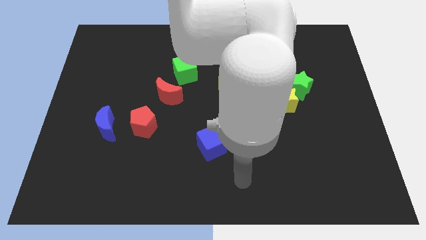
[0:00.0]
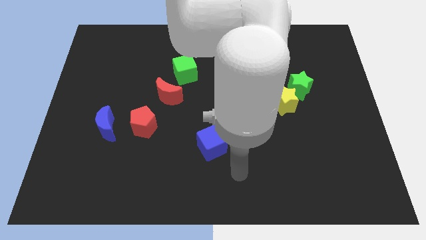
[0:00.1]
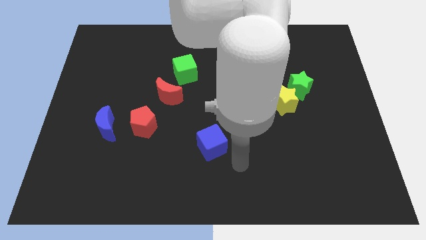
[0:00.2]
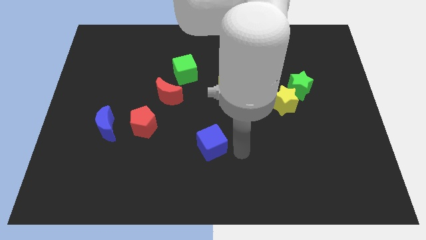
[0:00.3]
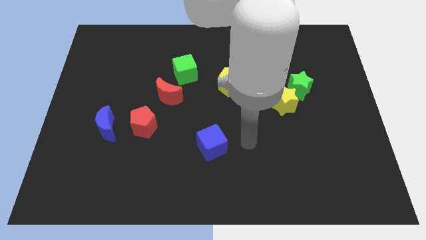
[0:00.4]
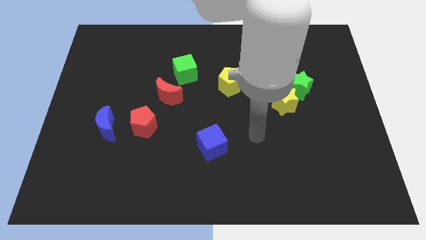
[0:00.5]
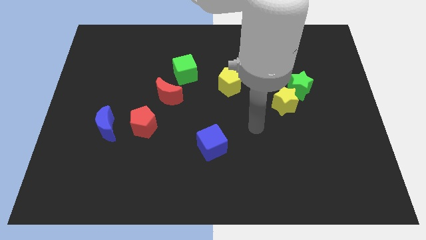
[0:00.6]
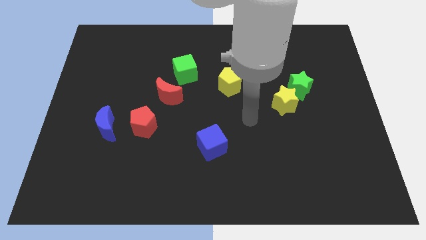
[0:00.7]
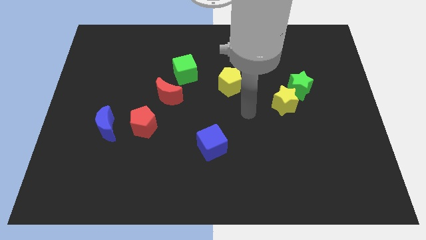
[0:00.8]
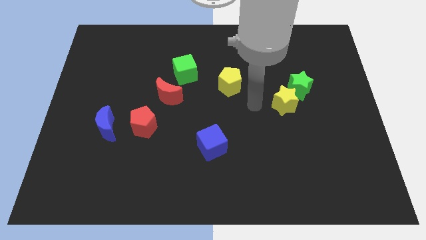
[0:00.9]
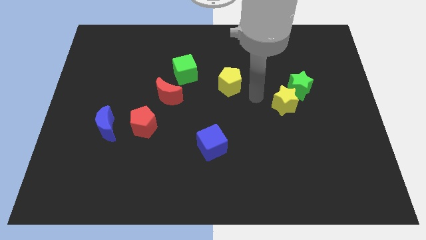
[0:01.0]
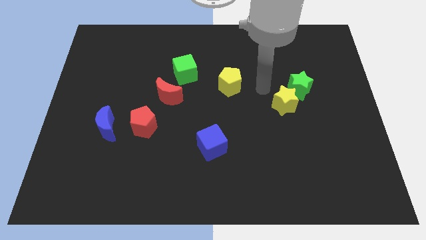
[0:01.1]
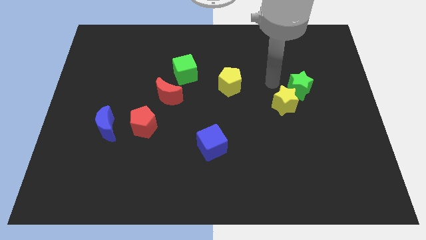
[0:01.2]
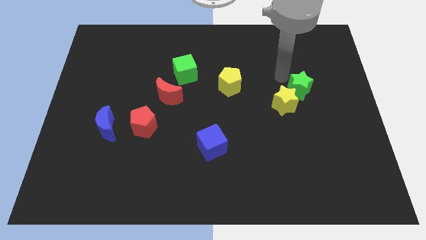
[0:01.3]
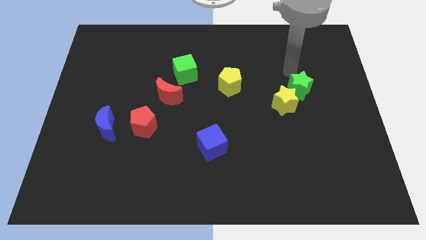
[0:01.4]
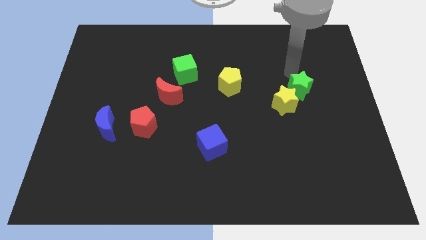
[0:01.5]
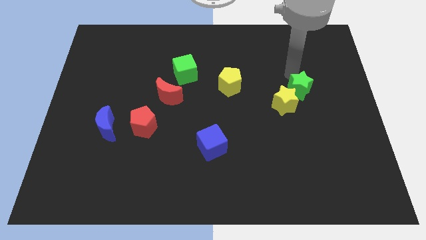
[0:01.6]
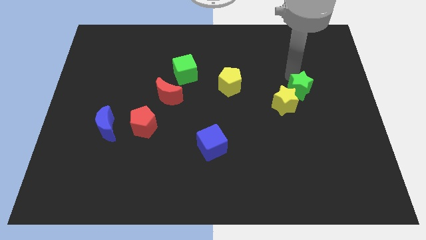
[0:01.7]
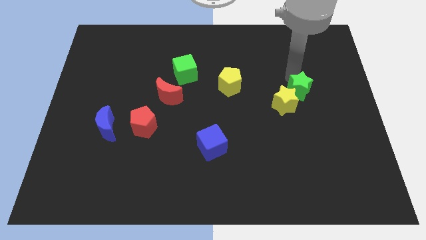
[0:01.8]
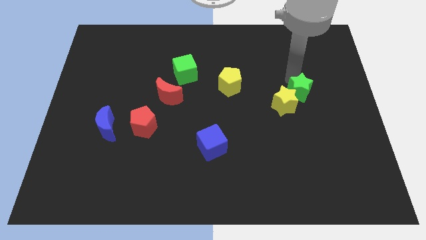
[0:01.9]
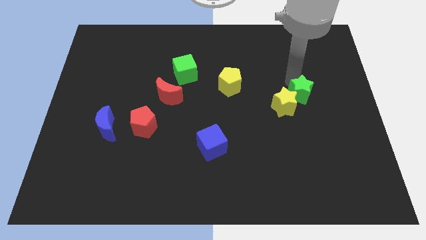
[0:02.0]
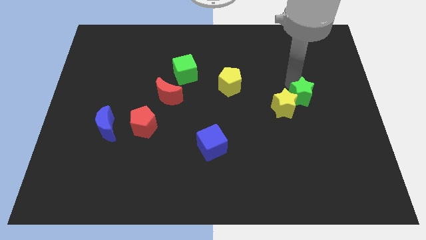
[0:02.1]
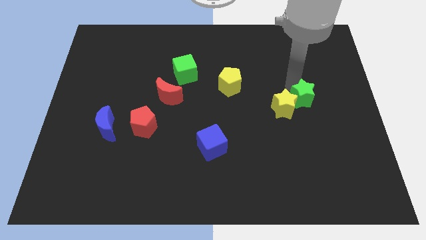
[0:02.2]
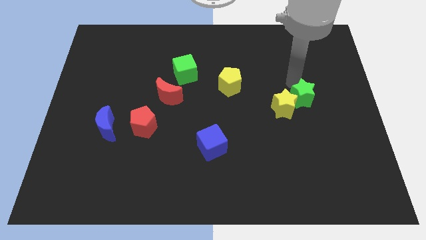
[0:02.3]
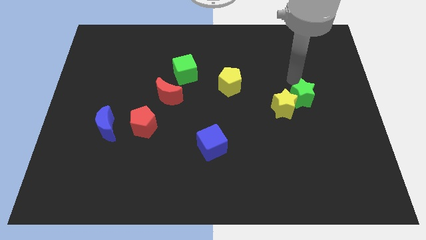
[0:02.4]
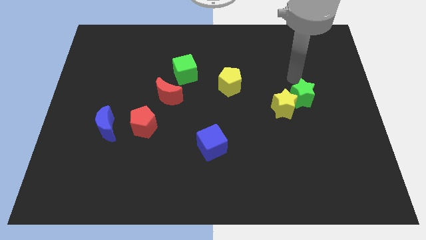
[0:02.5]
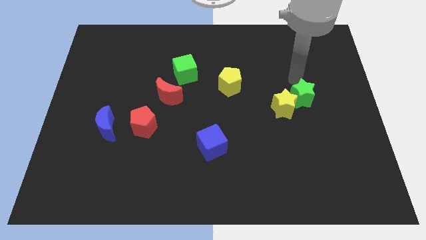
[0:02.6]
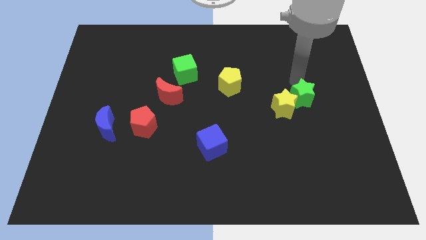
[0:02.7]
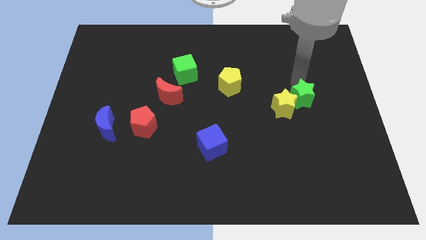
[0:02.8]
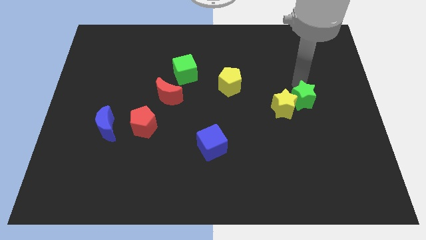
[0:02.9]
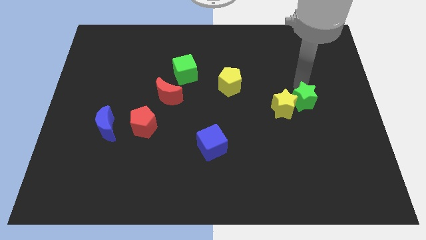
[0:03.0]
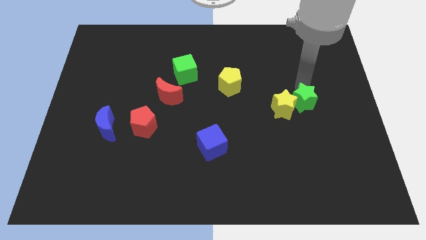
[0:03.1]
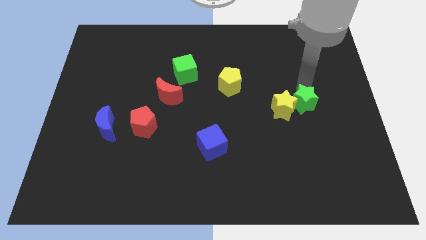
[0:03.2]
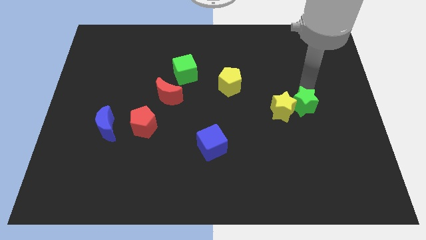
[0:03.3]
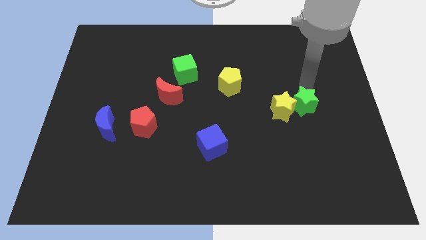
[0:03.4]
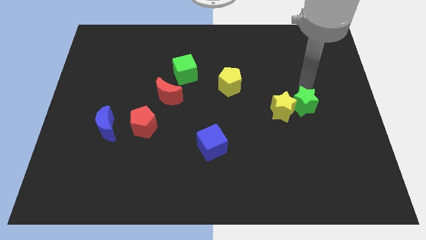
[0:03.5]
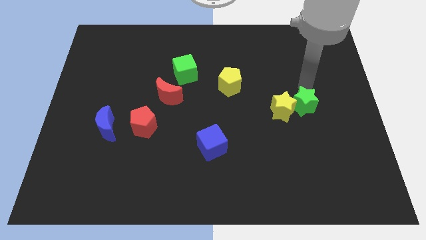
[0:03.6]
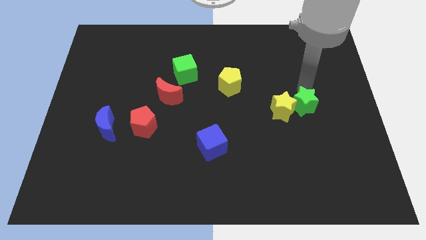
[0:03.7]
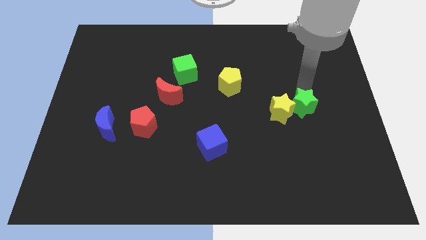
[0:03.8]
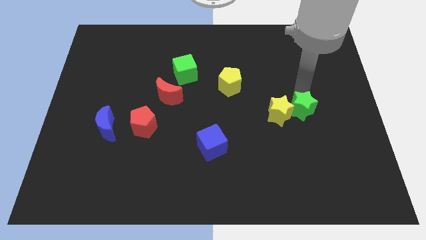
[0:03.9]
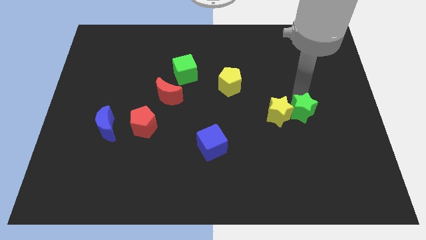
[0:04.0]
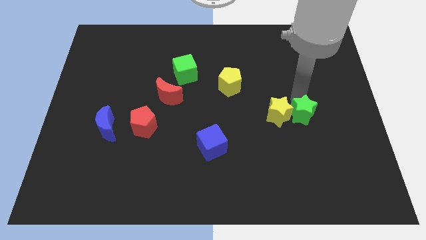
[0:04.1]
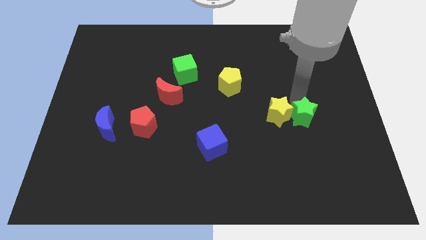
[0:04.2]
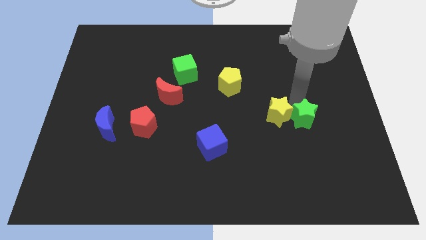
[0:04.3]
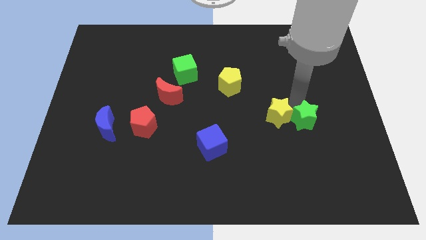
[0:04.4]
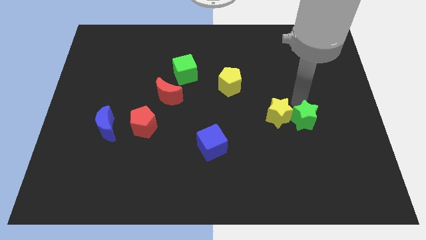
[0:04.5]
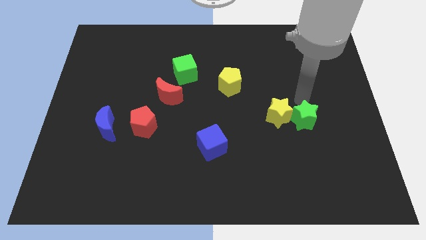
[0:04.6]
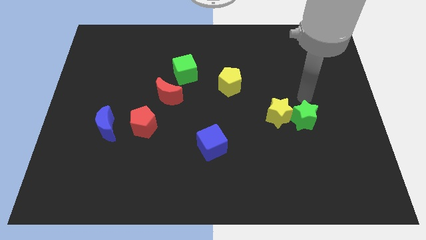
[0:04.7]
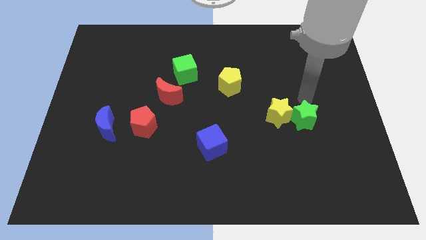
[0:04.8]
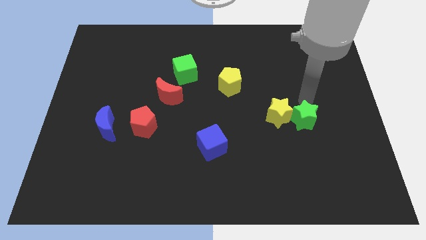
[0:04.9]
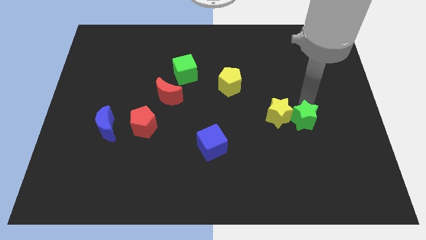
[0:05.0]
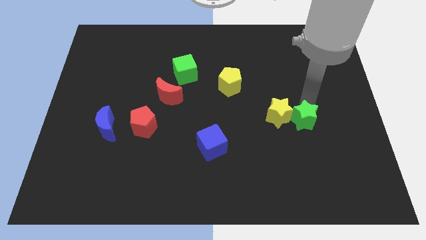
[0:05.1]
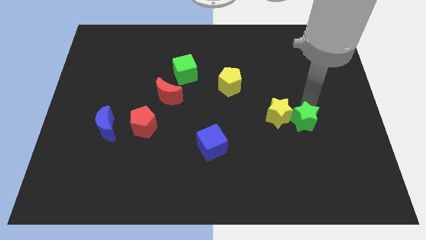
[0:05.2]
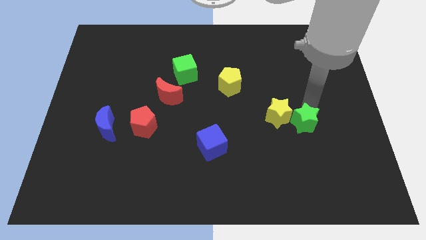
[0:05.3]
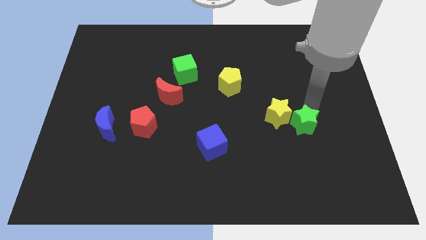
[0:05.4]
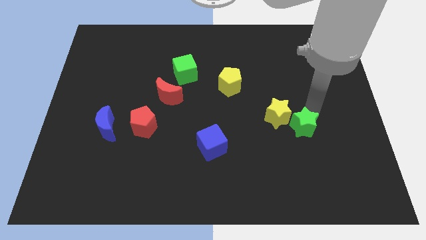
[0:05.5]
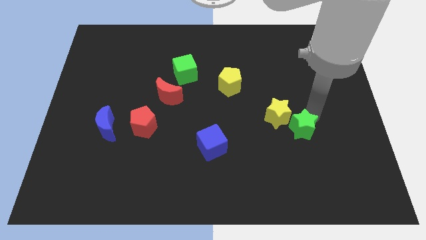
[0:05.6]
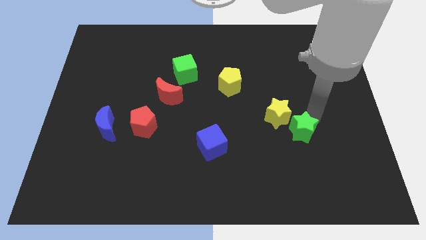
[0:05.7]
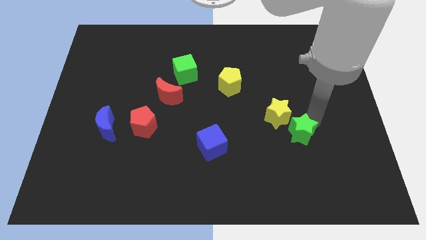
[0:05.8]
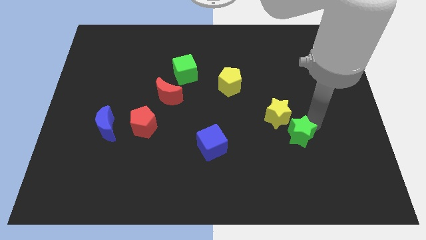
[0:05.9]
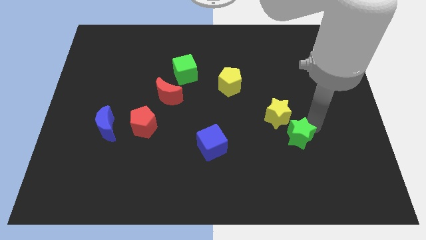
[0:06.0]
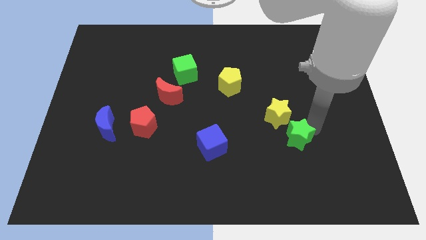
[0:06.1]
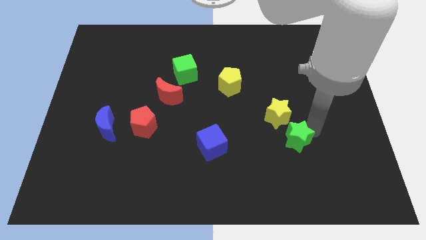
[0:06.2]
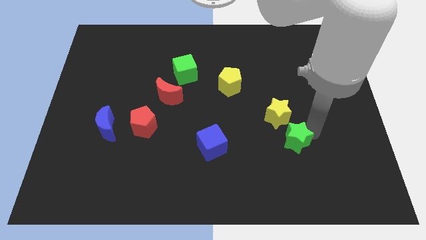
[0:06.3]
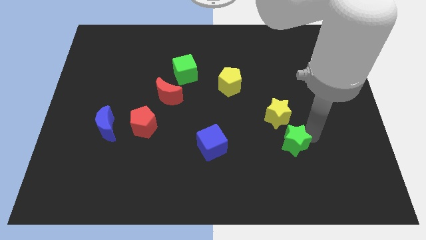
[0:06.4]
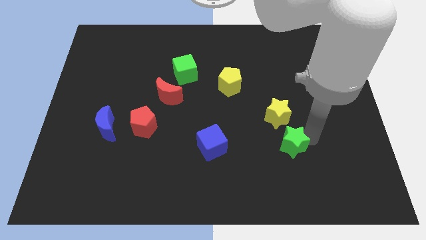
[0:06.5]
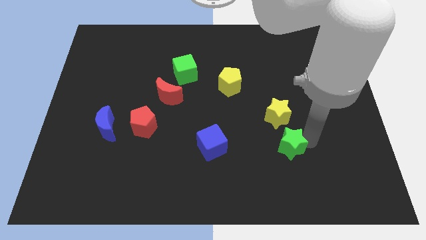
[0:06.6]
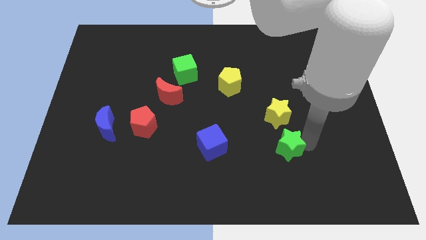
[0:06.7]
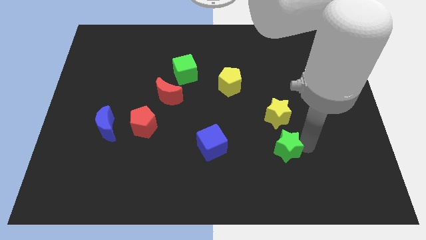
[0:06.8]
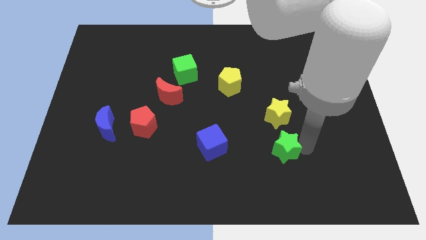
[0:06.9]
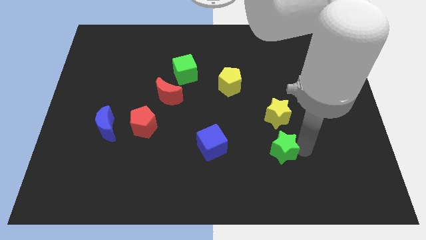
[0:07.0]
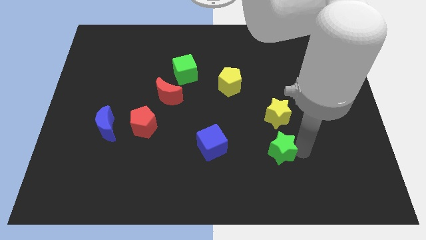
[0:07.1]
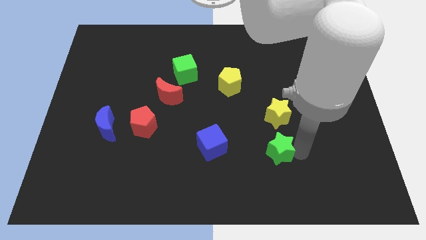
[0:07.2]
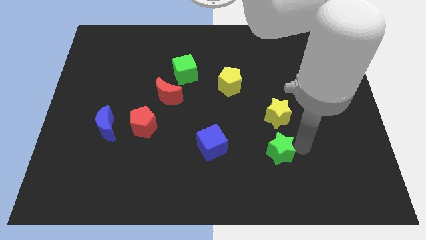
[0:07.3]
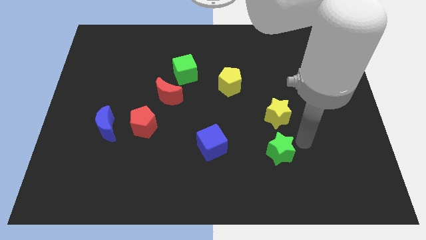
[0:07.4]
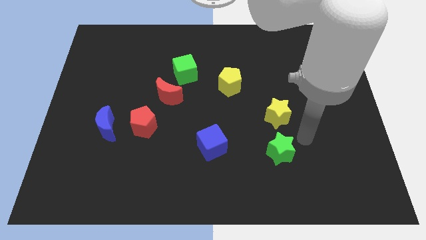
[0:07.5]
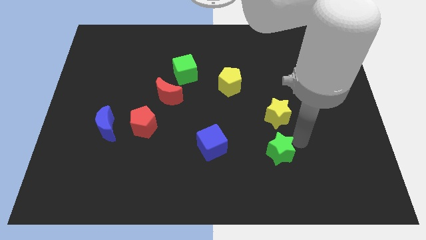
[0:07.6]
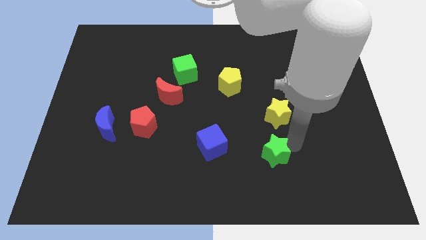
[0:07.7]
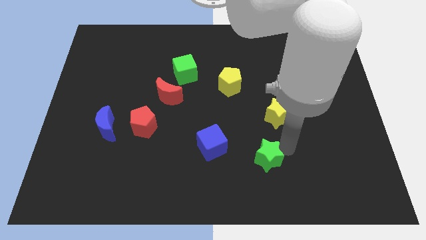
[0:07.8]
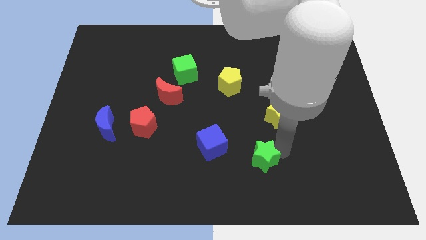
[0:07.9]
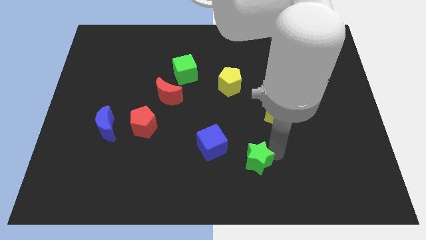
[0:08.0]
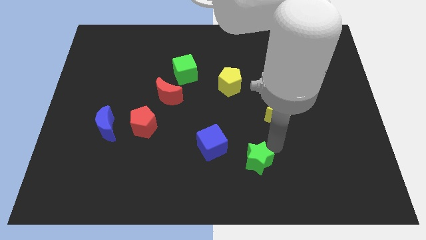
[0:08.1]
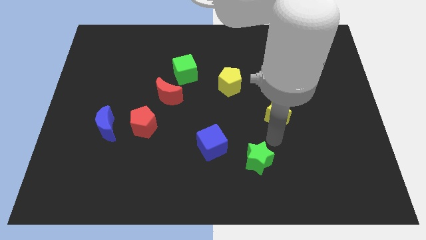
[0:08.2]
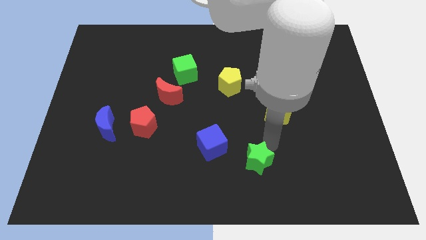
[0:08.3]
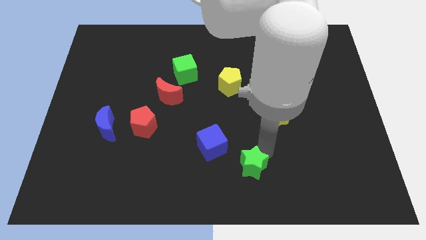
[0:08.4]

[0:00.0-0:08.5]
push the green star to the bottom
